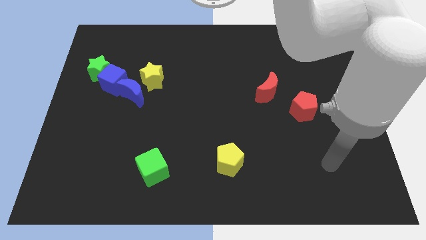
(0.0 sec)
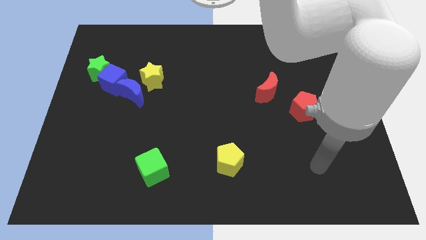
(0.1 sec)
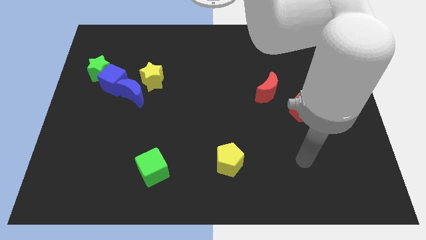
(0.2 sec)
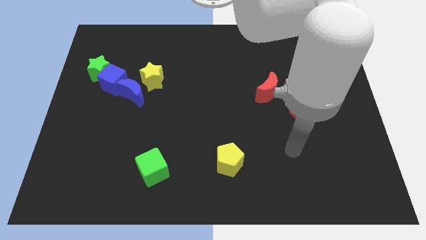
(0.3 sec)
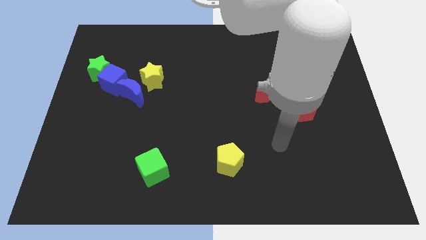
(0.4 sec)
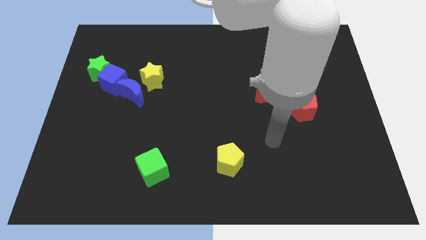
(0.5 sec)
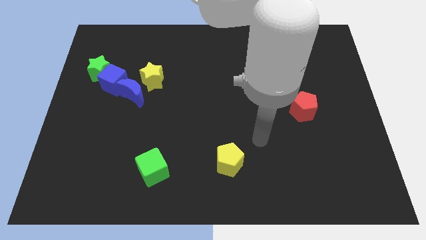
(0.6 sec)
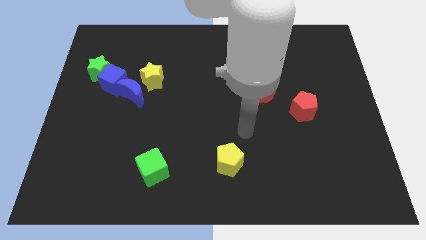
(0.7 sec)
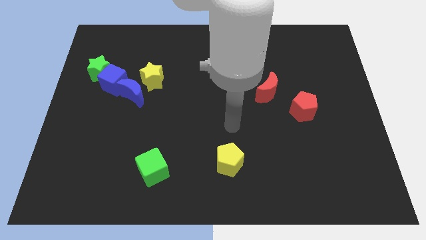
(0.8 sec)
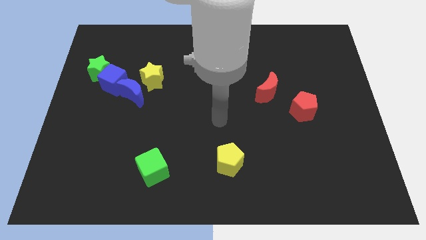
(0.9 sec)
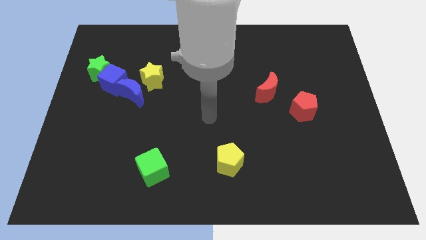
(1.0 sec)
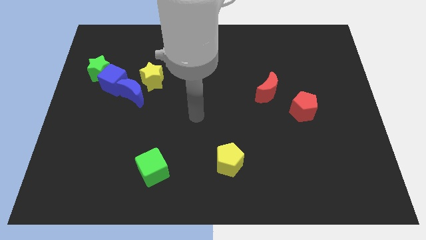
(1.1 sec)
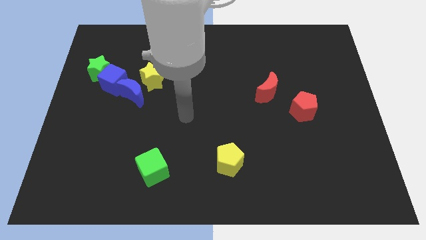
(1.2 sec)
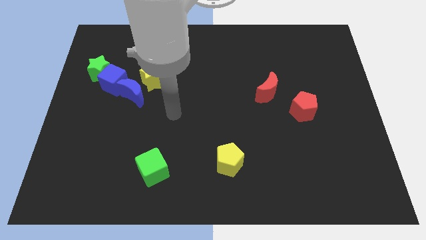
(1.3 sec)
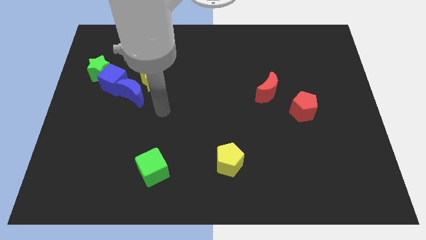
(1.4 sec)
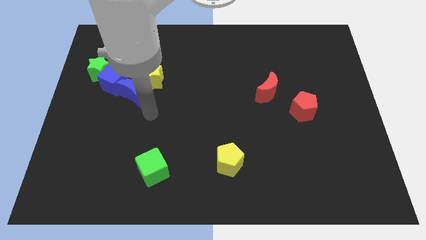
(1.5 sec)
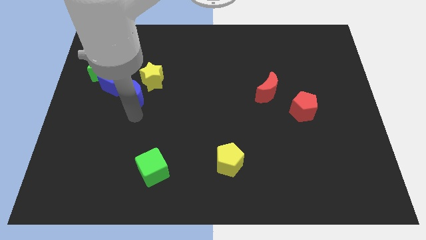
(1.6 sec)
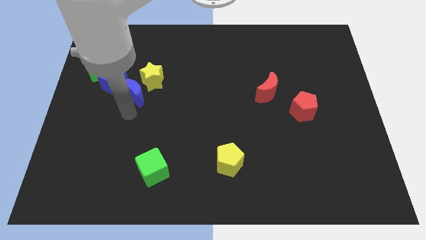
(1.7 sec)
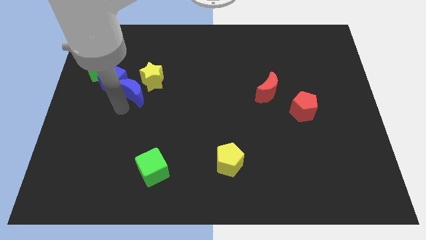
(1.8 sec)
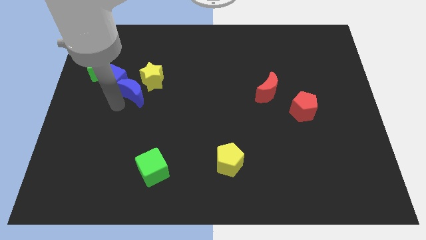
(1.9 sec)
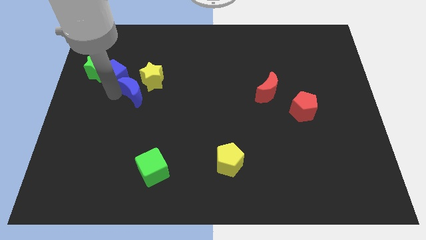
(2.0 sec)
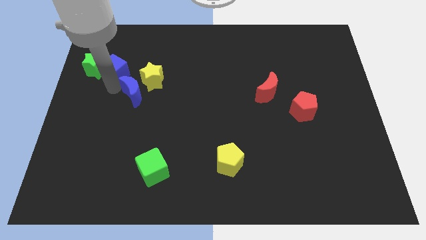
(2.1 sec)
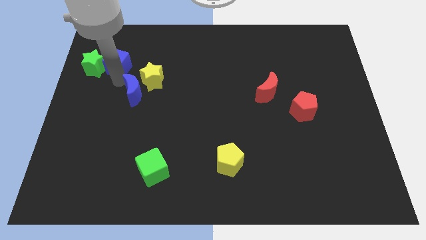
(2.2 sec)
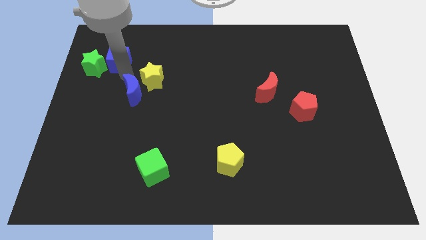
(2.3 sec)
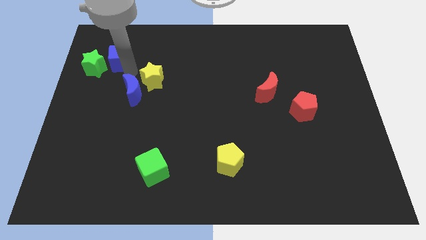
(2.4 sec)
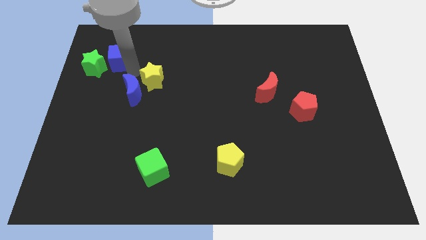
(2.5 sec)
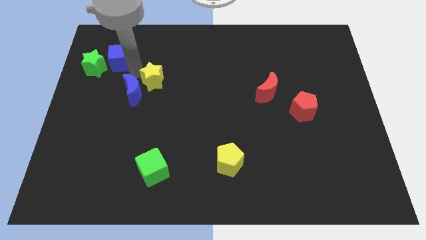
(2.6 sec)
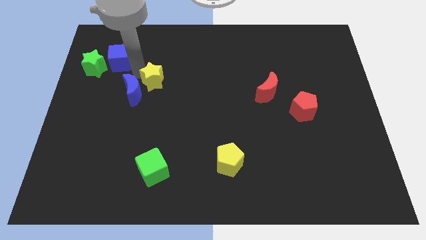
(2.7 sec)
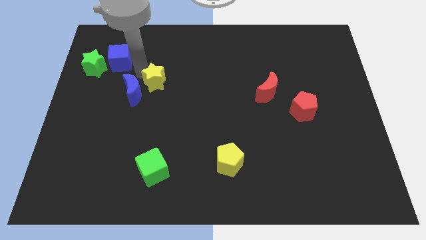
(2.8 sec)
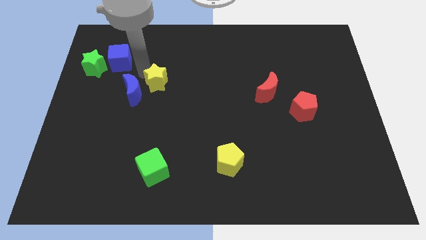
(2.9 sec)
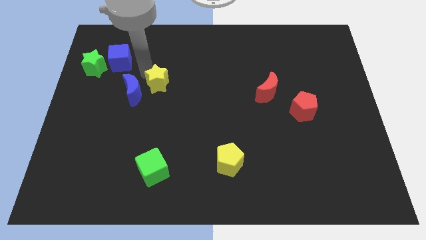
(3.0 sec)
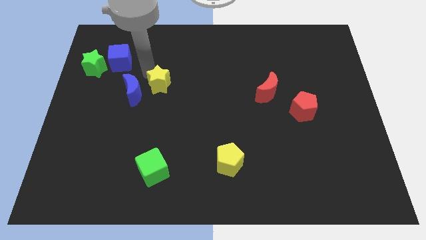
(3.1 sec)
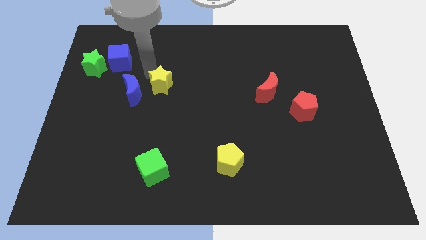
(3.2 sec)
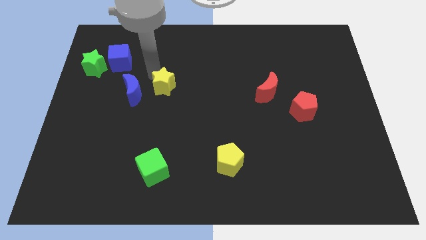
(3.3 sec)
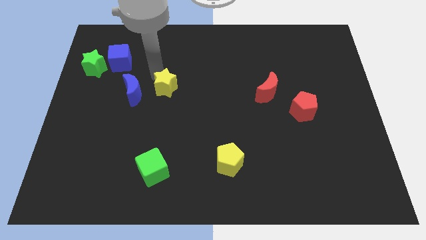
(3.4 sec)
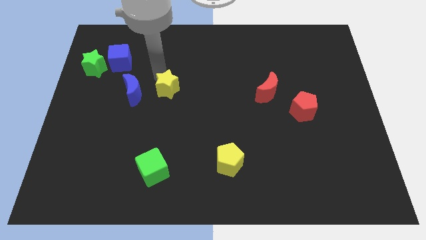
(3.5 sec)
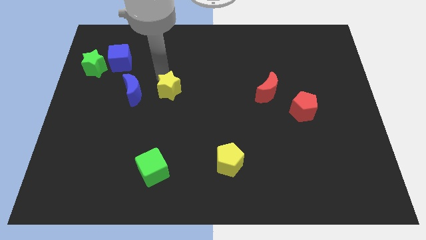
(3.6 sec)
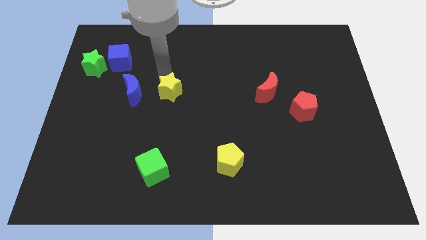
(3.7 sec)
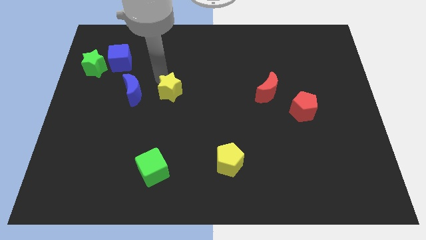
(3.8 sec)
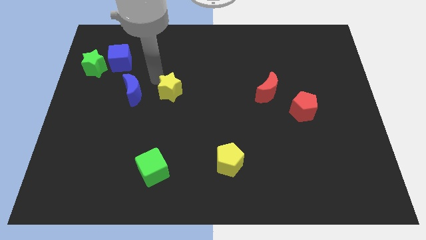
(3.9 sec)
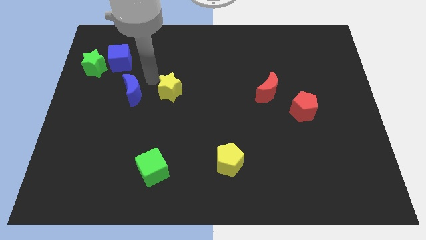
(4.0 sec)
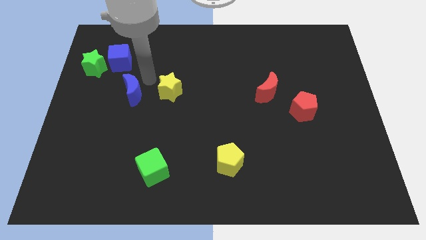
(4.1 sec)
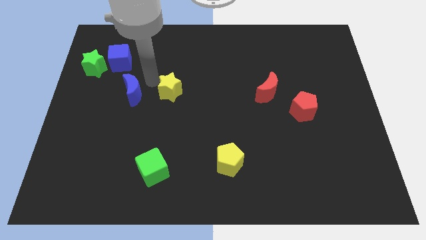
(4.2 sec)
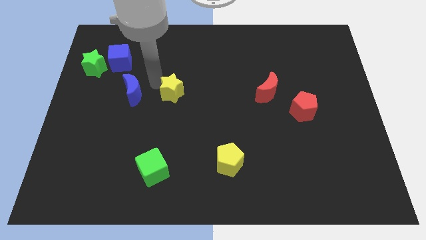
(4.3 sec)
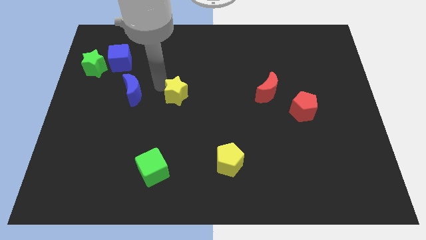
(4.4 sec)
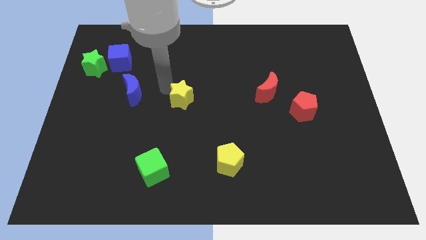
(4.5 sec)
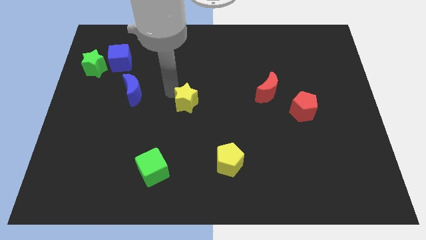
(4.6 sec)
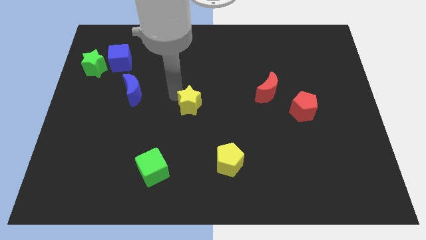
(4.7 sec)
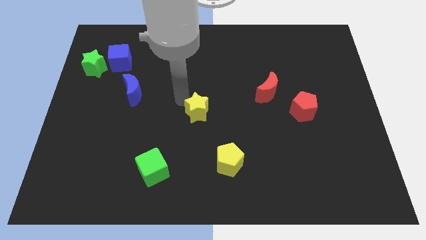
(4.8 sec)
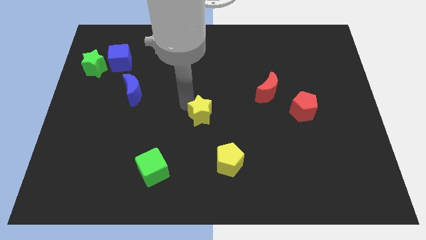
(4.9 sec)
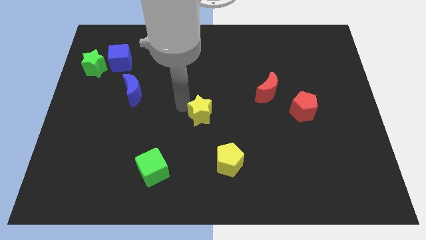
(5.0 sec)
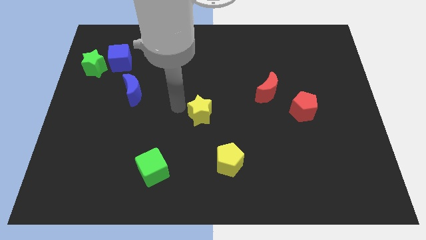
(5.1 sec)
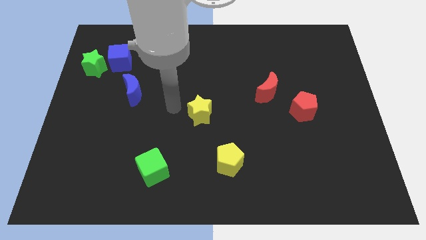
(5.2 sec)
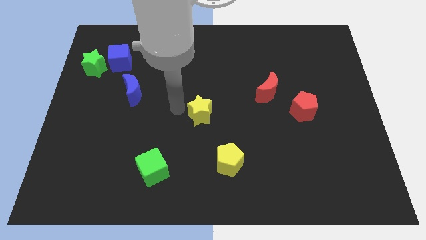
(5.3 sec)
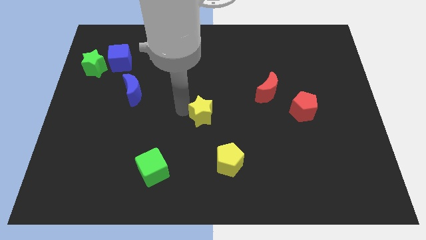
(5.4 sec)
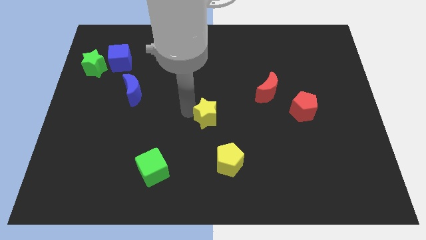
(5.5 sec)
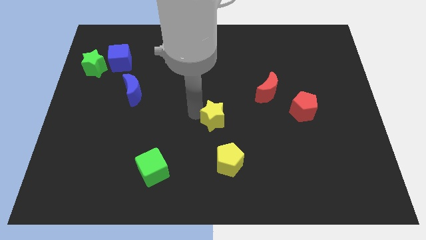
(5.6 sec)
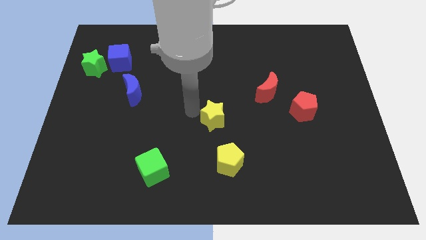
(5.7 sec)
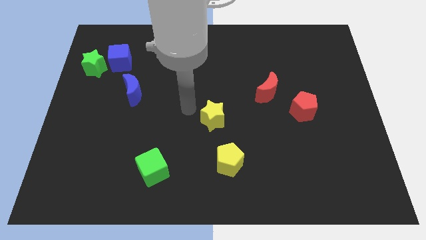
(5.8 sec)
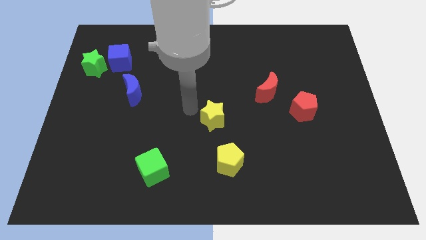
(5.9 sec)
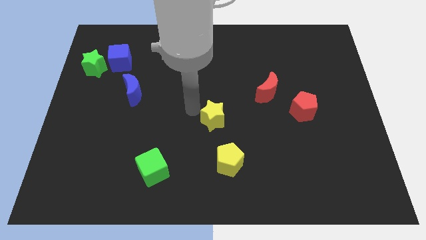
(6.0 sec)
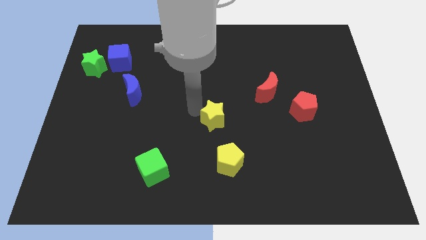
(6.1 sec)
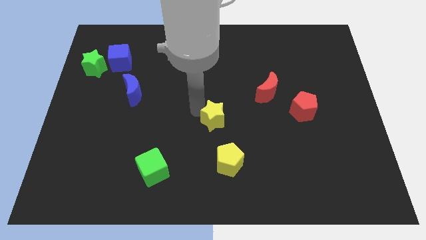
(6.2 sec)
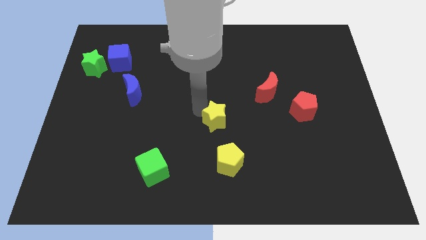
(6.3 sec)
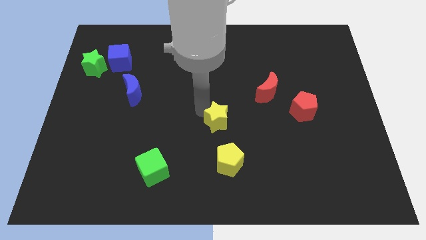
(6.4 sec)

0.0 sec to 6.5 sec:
move the yellow star diagonally down and to the right

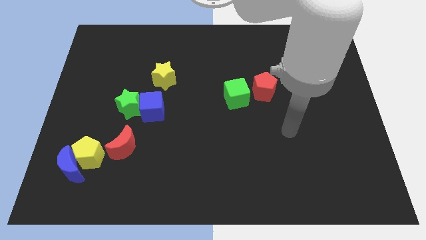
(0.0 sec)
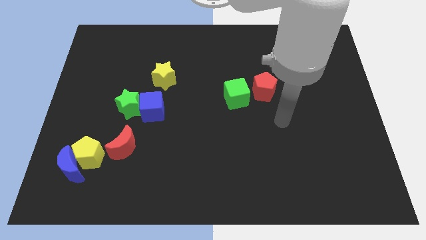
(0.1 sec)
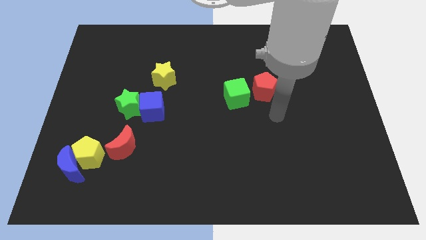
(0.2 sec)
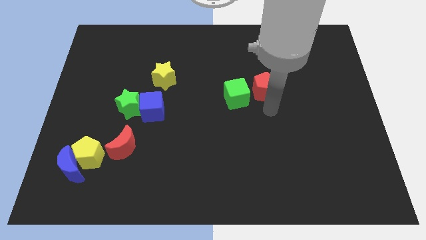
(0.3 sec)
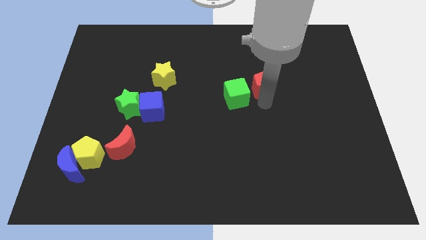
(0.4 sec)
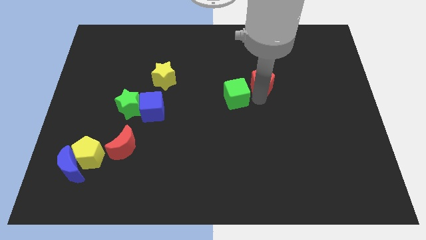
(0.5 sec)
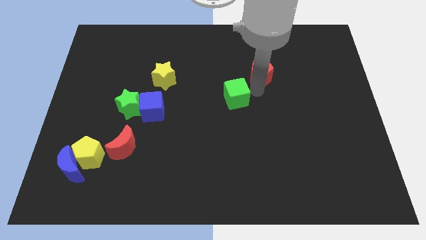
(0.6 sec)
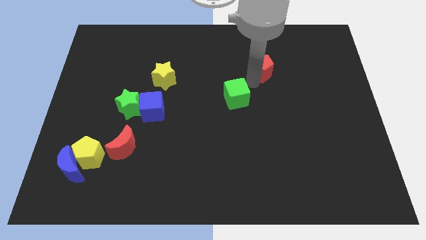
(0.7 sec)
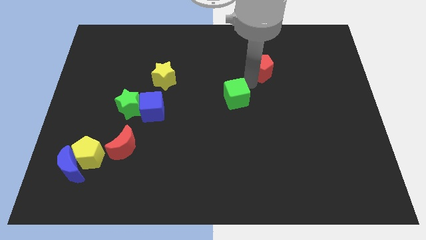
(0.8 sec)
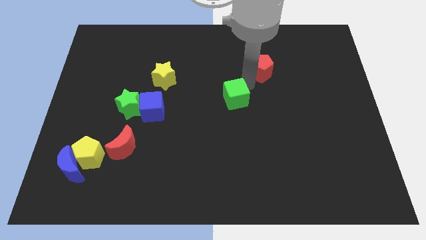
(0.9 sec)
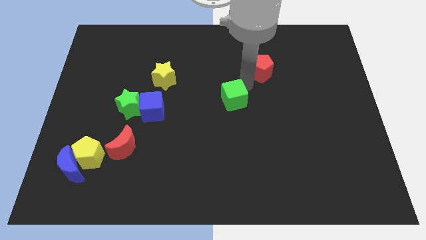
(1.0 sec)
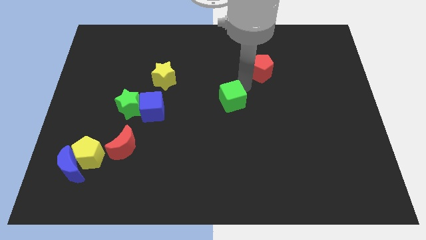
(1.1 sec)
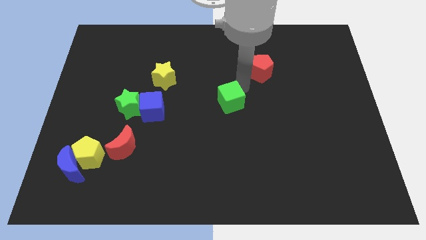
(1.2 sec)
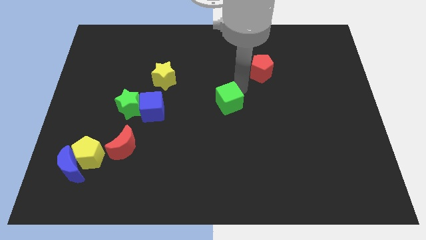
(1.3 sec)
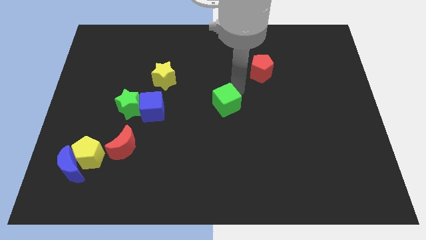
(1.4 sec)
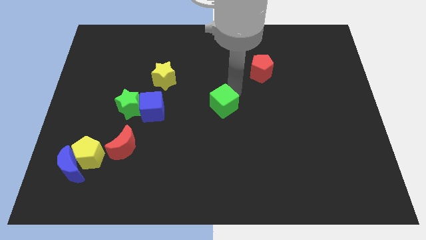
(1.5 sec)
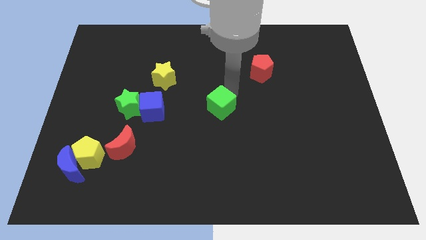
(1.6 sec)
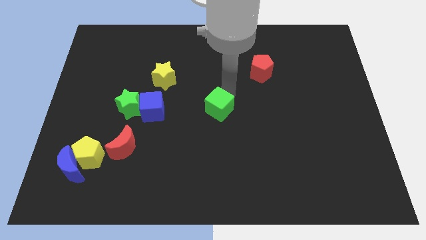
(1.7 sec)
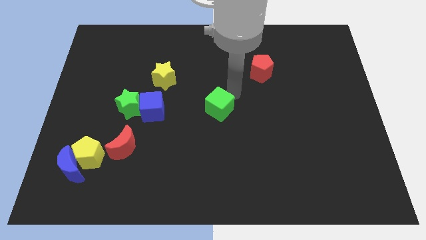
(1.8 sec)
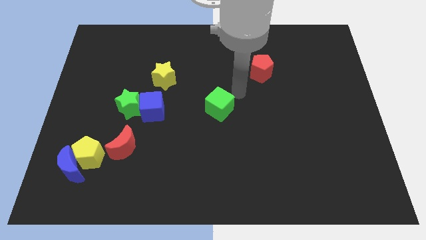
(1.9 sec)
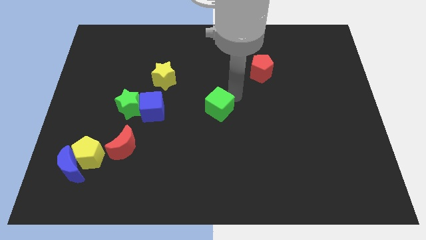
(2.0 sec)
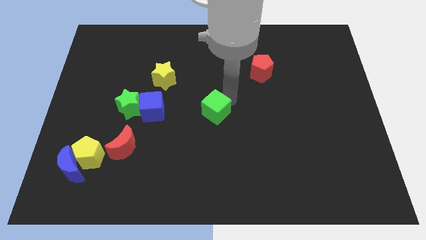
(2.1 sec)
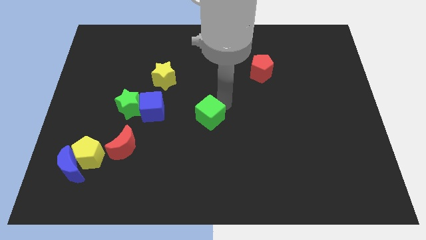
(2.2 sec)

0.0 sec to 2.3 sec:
move the green cube downwards and left diagonally a little
